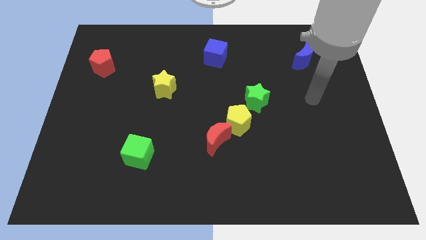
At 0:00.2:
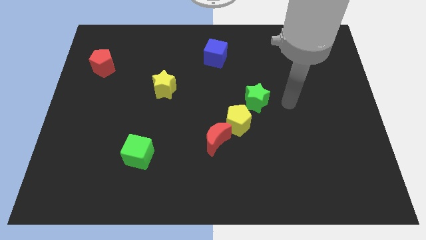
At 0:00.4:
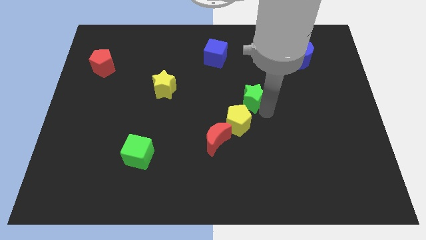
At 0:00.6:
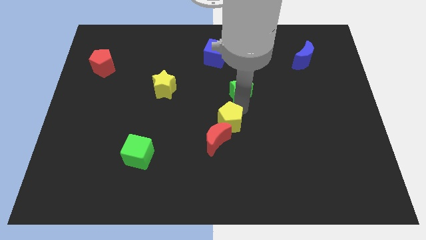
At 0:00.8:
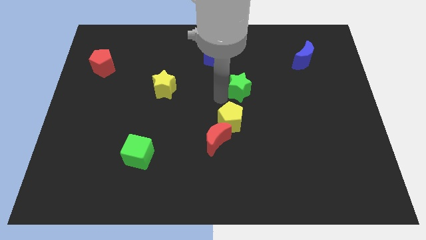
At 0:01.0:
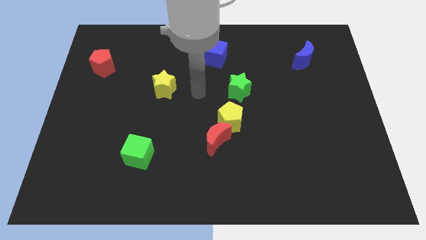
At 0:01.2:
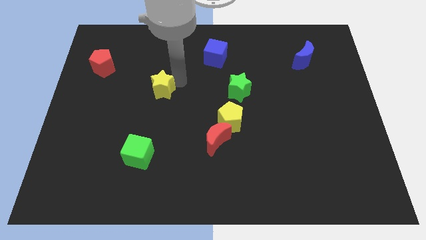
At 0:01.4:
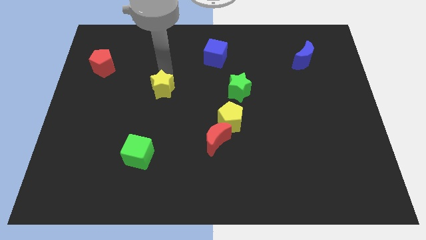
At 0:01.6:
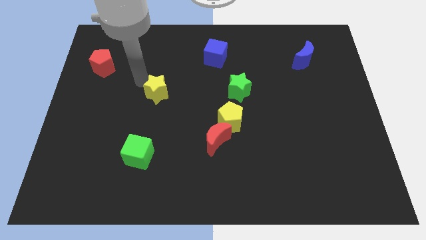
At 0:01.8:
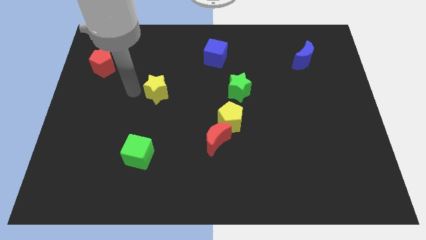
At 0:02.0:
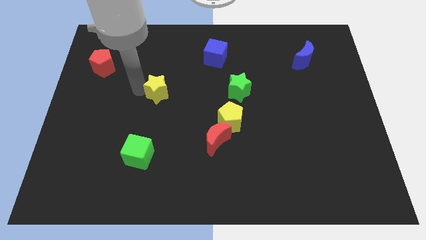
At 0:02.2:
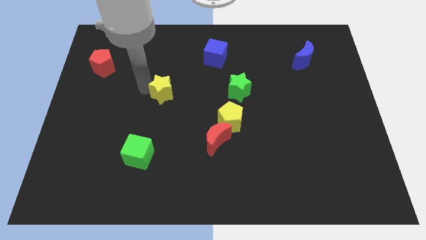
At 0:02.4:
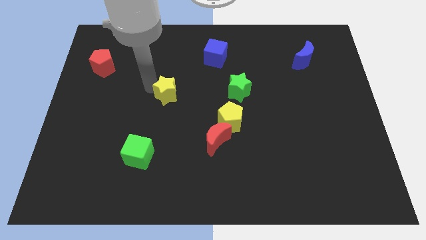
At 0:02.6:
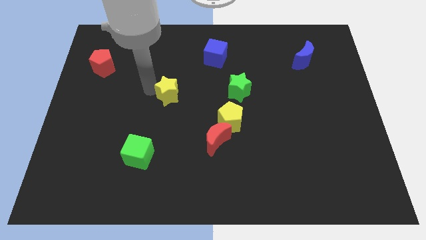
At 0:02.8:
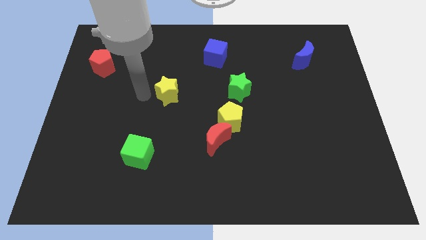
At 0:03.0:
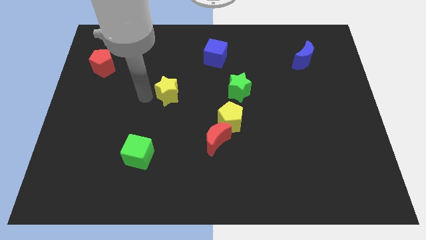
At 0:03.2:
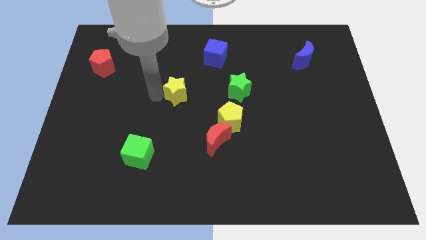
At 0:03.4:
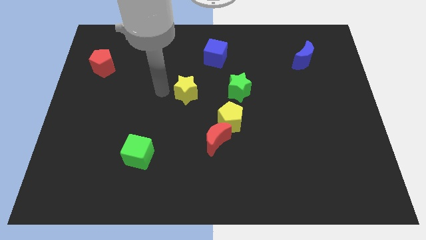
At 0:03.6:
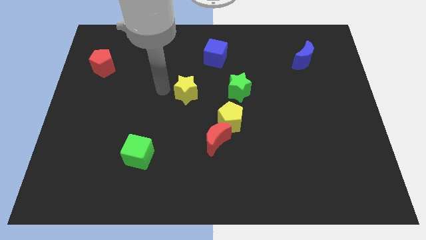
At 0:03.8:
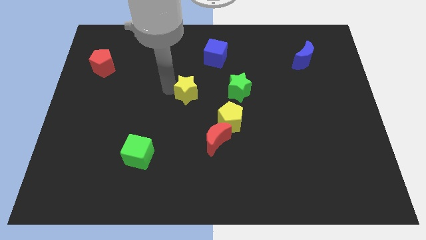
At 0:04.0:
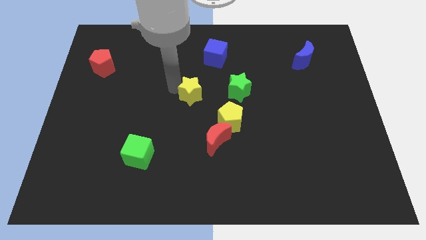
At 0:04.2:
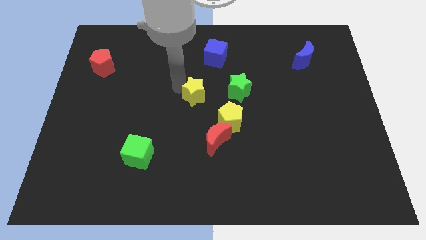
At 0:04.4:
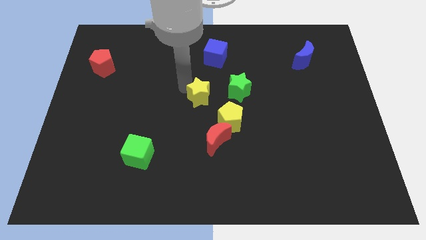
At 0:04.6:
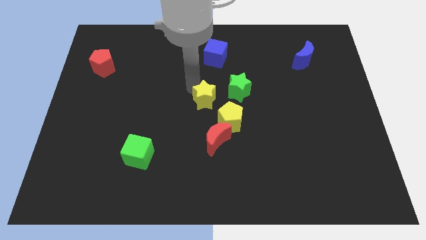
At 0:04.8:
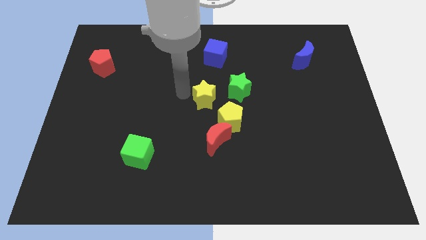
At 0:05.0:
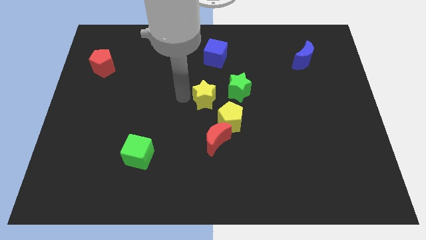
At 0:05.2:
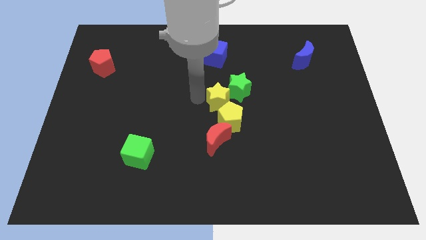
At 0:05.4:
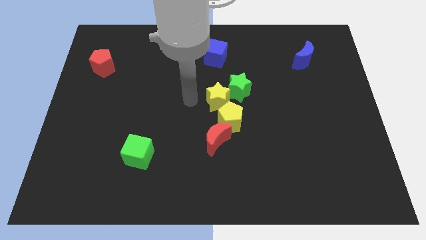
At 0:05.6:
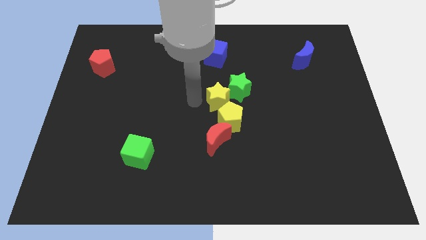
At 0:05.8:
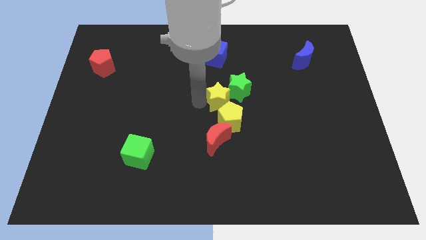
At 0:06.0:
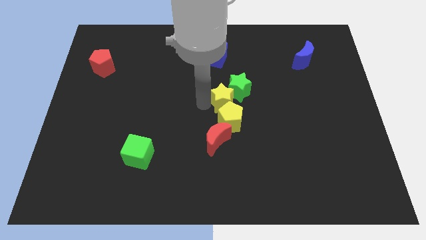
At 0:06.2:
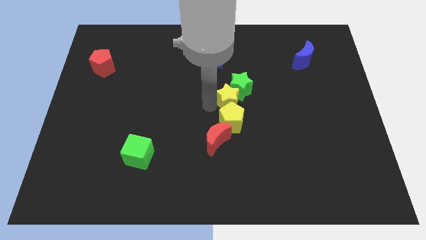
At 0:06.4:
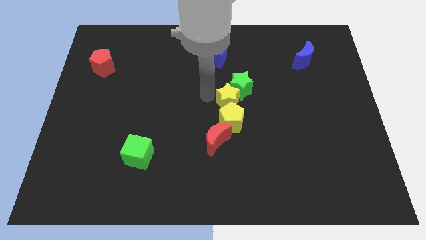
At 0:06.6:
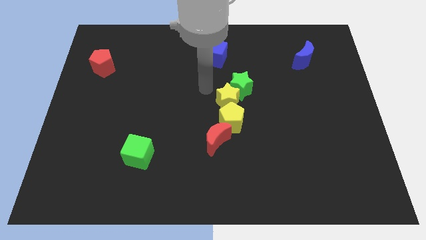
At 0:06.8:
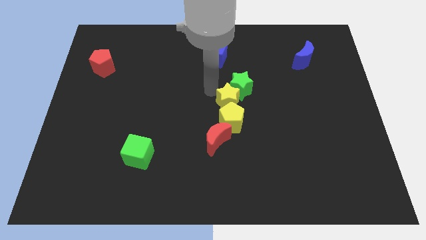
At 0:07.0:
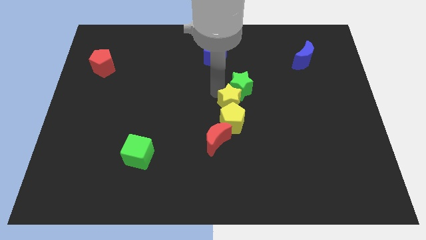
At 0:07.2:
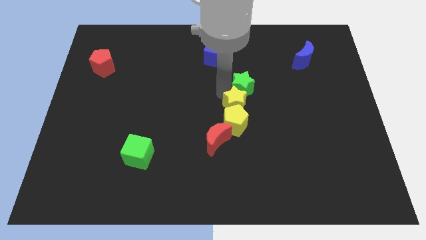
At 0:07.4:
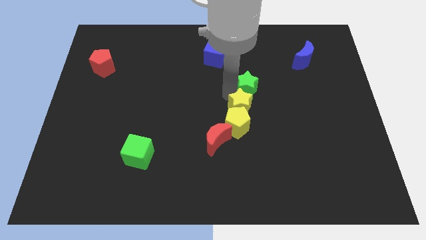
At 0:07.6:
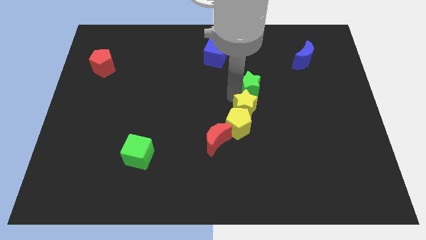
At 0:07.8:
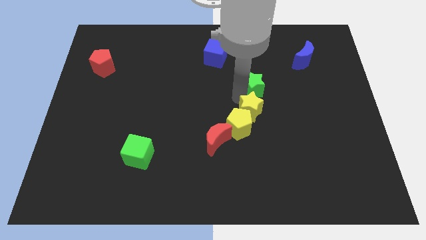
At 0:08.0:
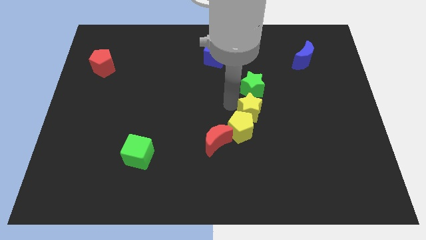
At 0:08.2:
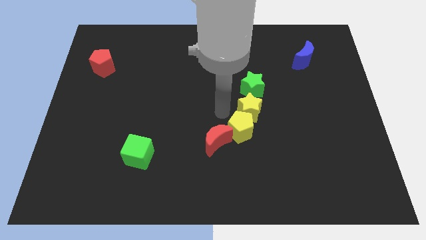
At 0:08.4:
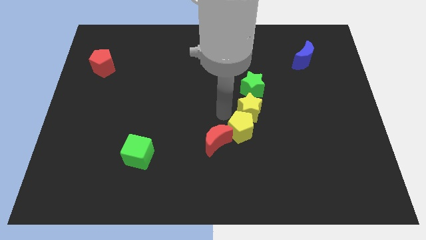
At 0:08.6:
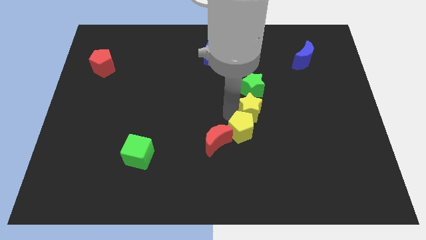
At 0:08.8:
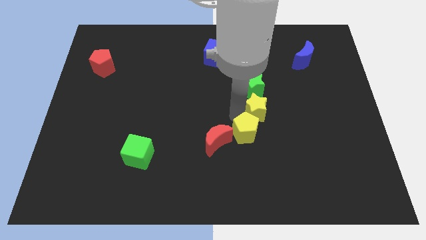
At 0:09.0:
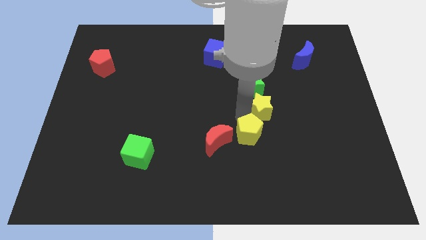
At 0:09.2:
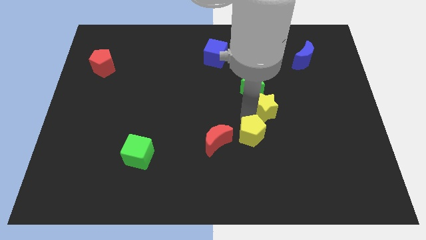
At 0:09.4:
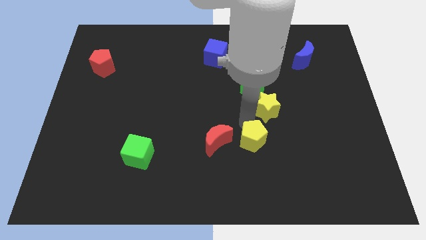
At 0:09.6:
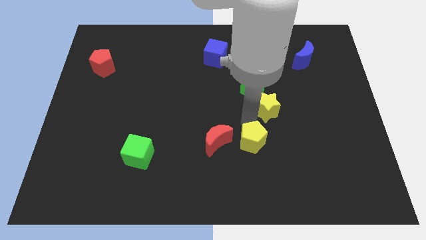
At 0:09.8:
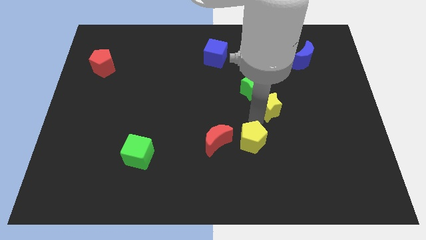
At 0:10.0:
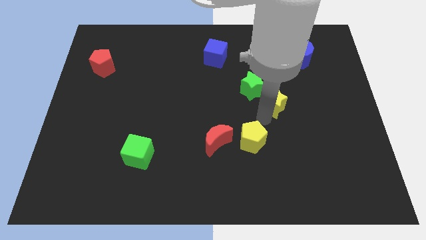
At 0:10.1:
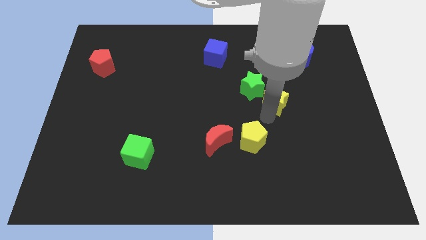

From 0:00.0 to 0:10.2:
slide the yellow star right of the green star

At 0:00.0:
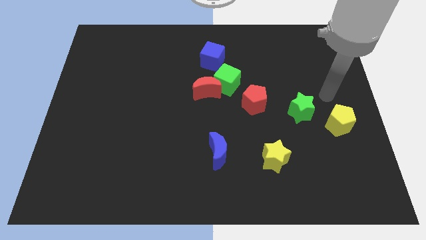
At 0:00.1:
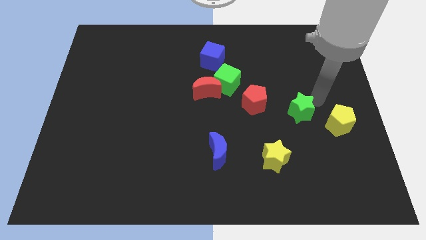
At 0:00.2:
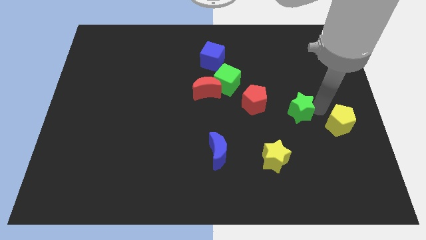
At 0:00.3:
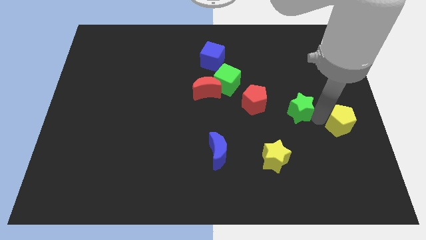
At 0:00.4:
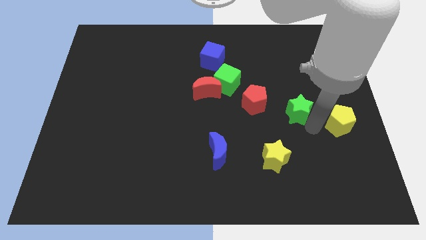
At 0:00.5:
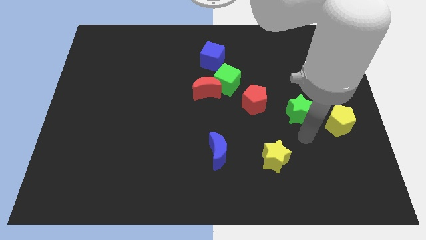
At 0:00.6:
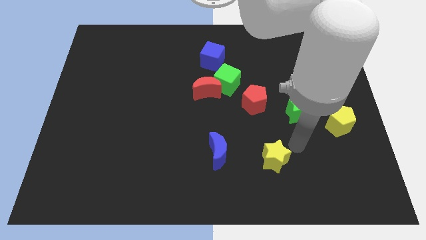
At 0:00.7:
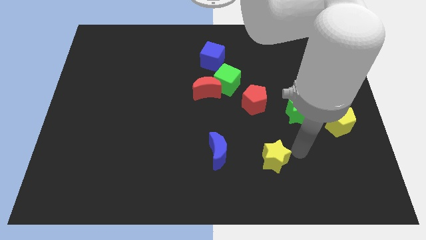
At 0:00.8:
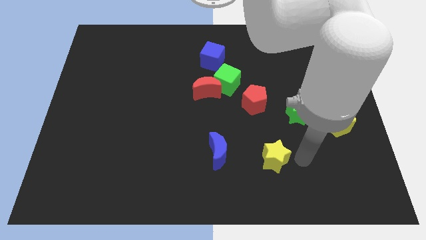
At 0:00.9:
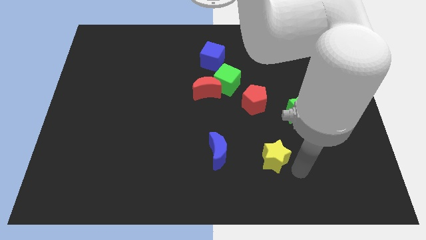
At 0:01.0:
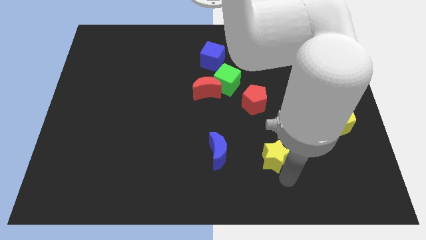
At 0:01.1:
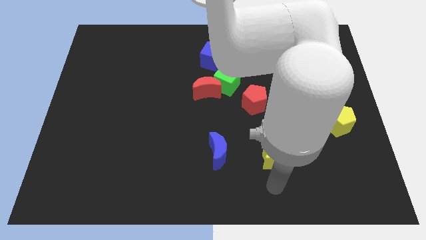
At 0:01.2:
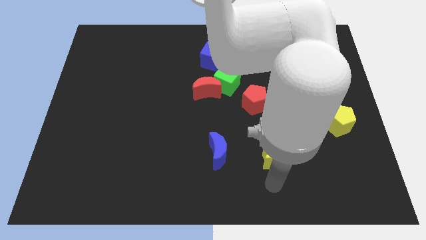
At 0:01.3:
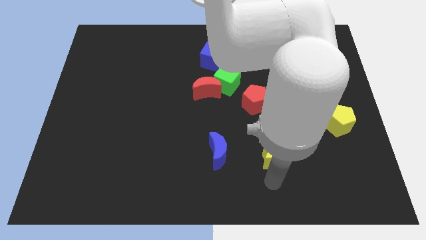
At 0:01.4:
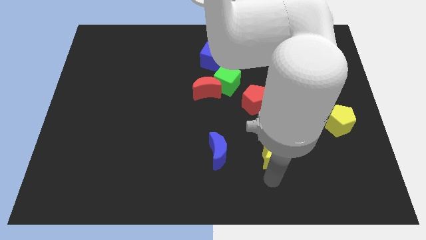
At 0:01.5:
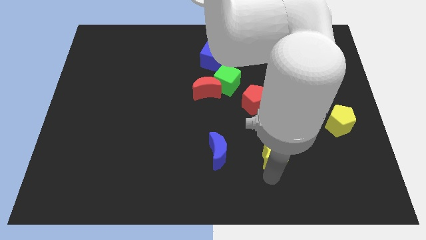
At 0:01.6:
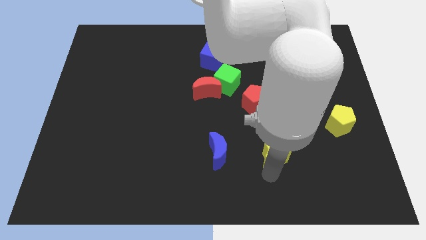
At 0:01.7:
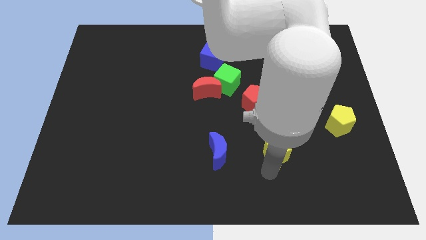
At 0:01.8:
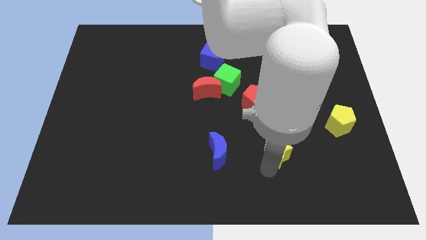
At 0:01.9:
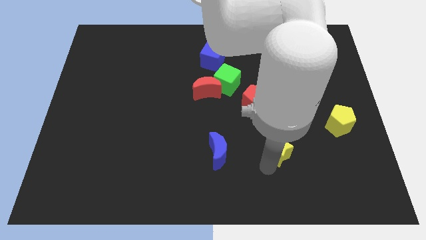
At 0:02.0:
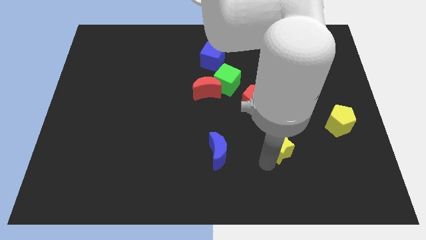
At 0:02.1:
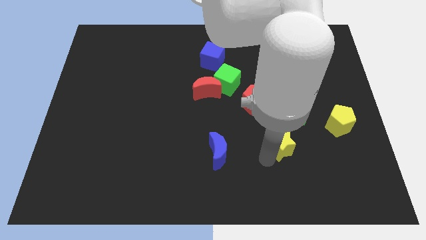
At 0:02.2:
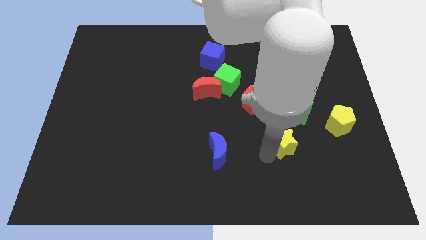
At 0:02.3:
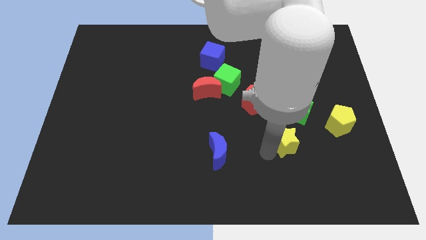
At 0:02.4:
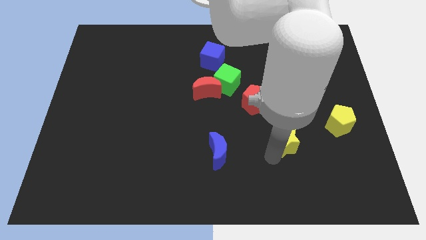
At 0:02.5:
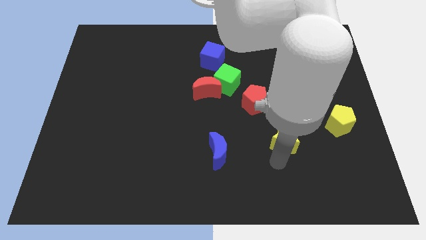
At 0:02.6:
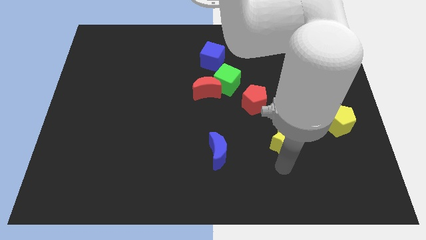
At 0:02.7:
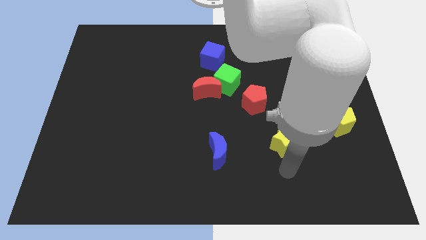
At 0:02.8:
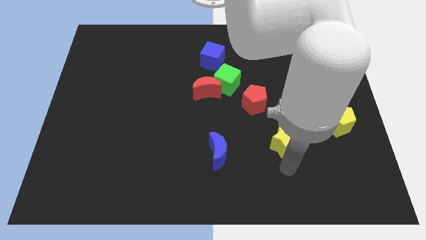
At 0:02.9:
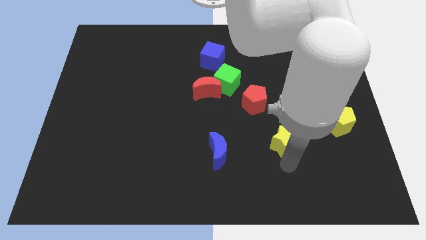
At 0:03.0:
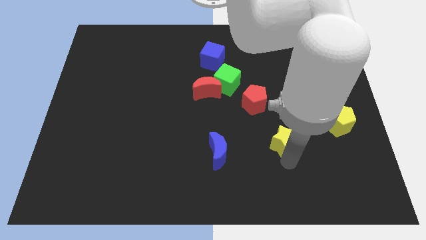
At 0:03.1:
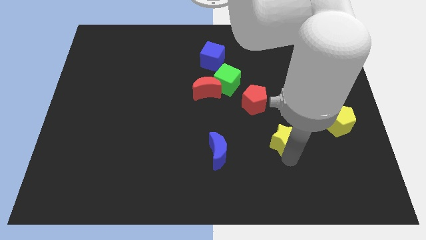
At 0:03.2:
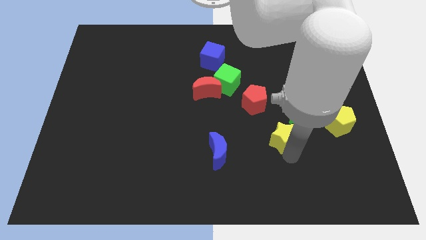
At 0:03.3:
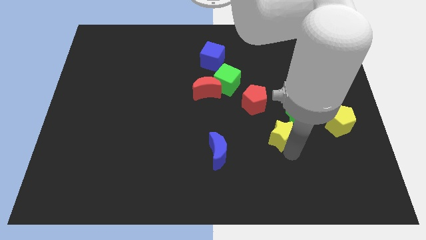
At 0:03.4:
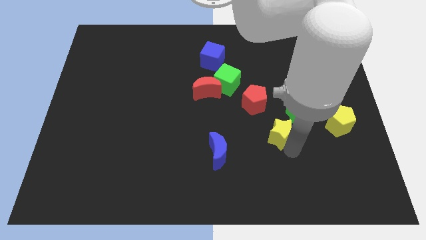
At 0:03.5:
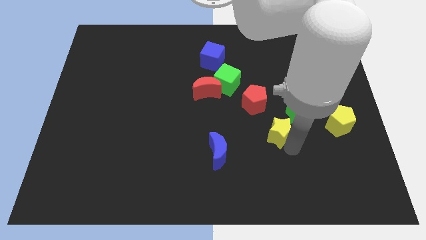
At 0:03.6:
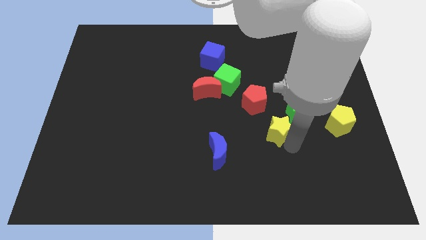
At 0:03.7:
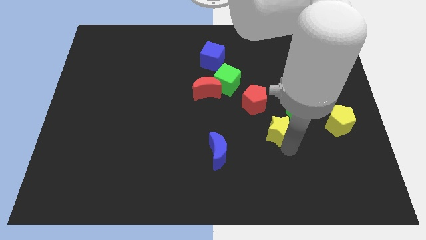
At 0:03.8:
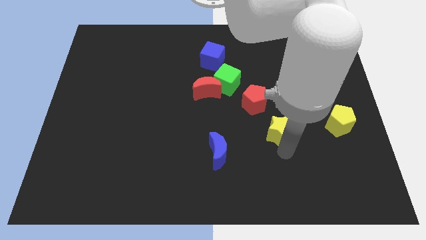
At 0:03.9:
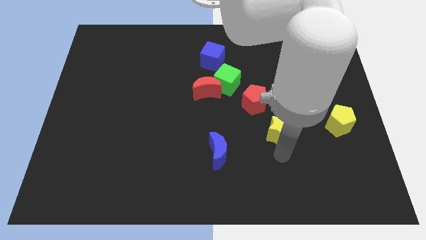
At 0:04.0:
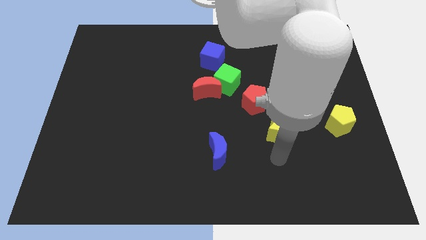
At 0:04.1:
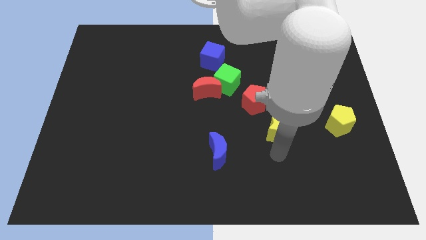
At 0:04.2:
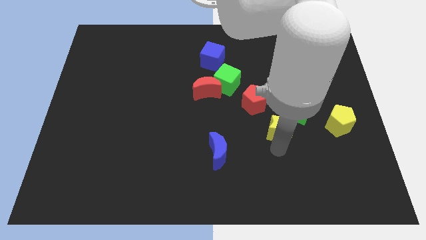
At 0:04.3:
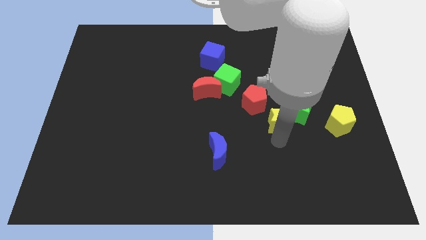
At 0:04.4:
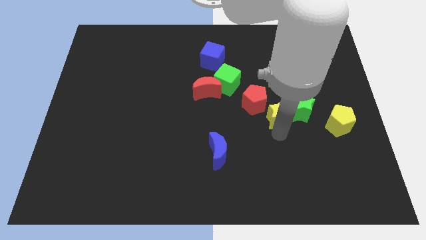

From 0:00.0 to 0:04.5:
put the yellow star just right of the red pentagon
